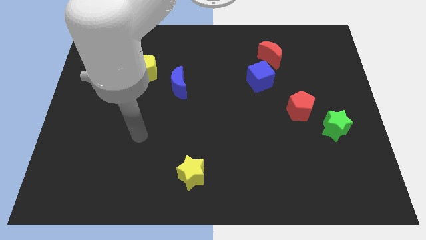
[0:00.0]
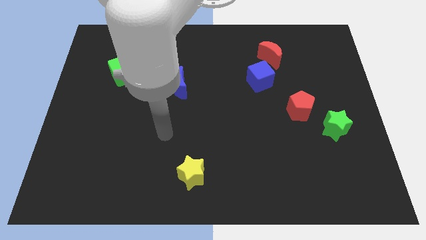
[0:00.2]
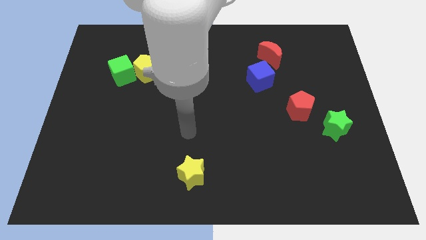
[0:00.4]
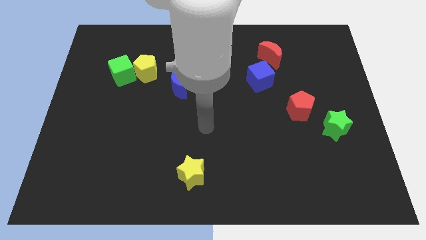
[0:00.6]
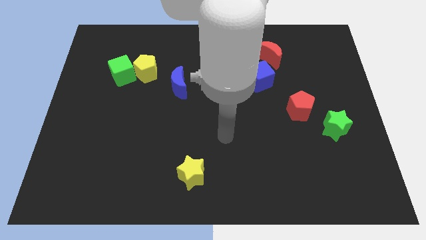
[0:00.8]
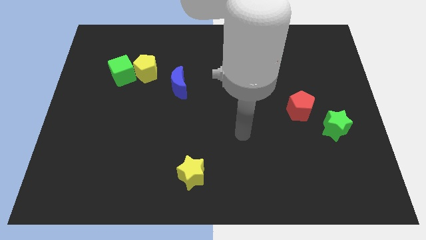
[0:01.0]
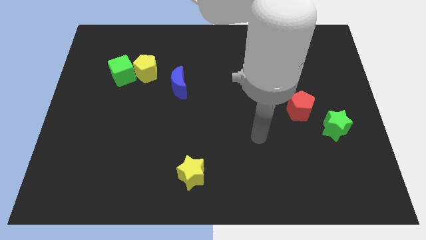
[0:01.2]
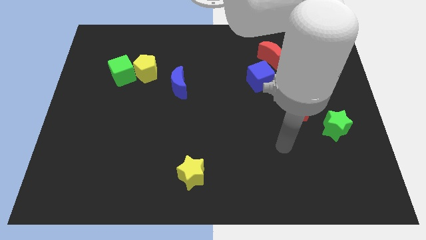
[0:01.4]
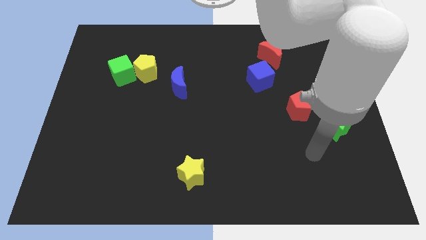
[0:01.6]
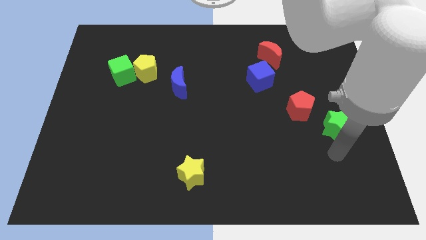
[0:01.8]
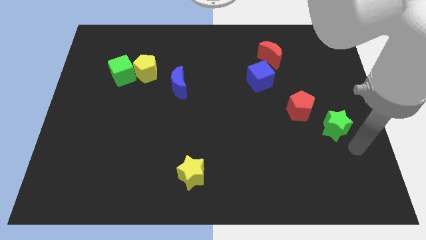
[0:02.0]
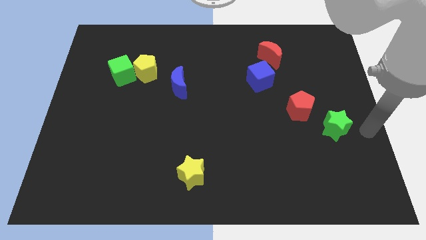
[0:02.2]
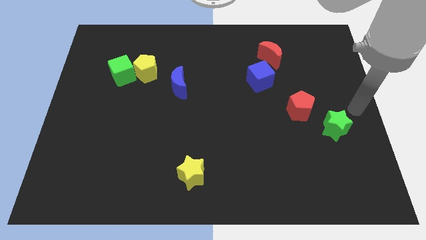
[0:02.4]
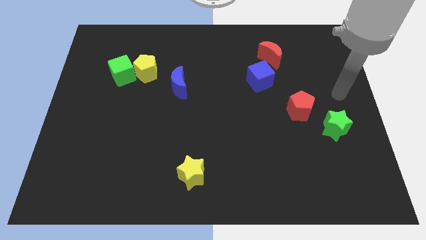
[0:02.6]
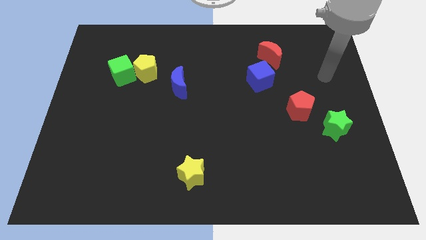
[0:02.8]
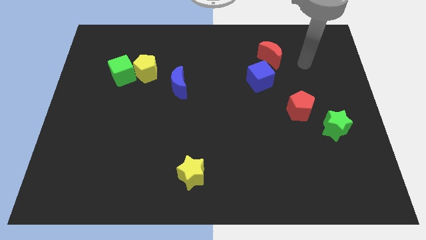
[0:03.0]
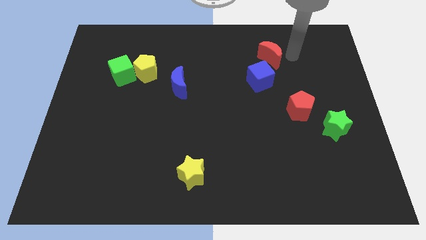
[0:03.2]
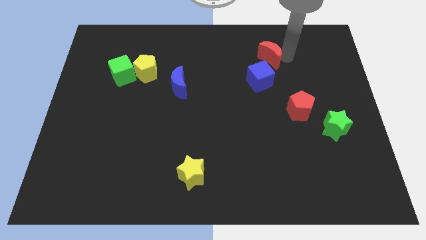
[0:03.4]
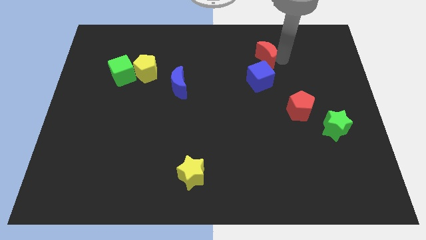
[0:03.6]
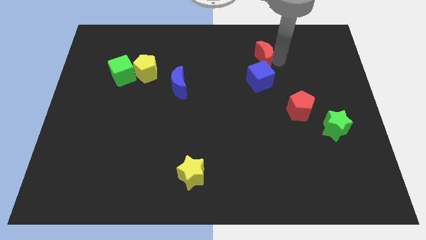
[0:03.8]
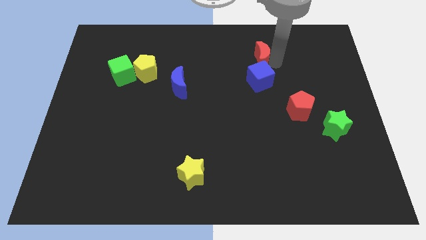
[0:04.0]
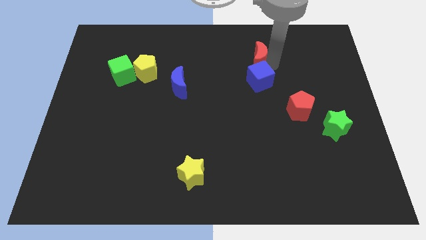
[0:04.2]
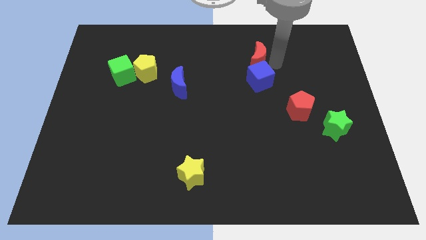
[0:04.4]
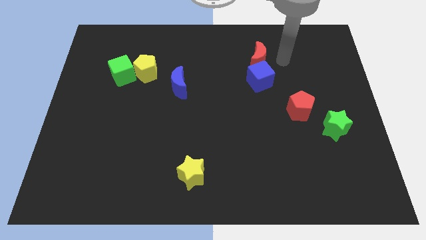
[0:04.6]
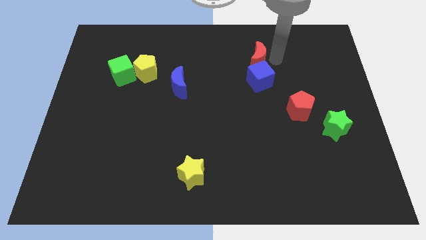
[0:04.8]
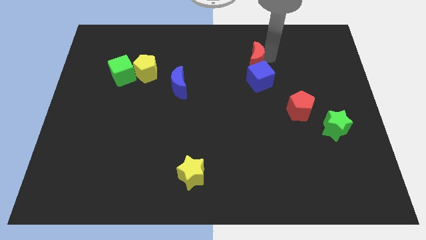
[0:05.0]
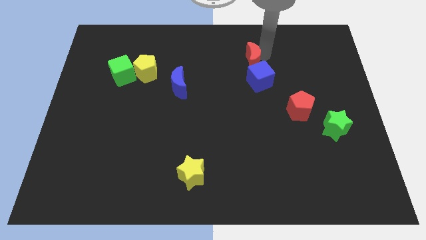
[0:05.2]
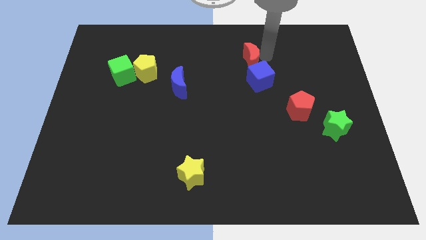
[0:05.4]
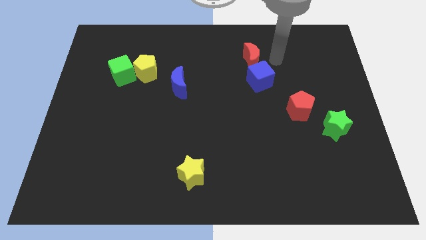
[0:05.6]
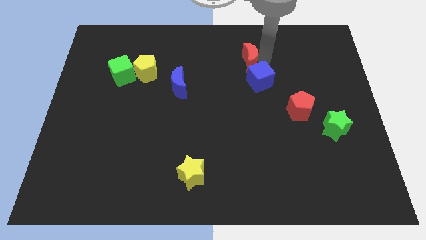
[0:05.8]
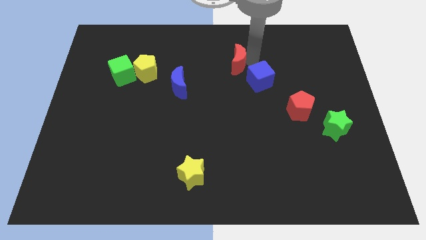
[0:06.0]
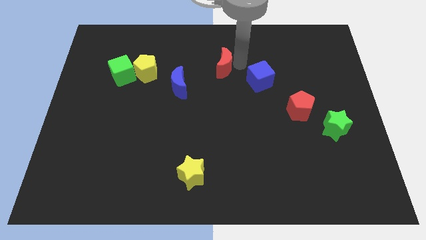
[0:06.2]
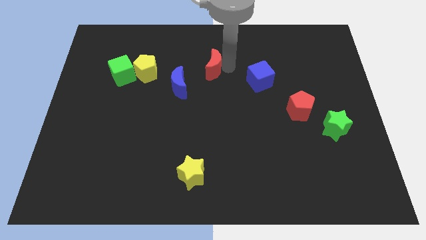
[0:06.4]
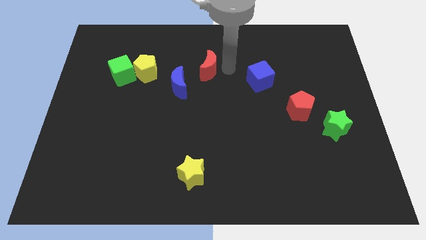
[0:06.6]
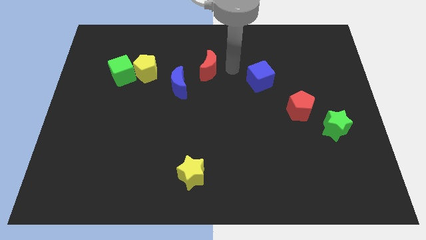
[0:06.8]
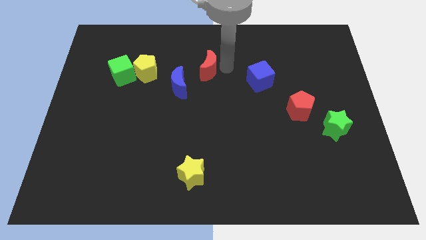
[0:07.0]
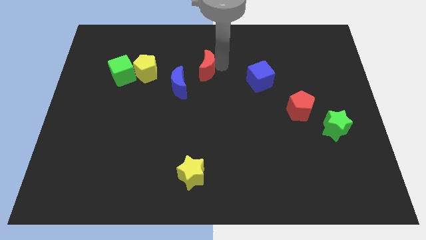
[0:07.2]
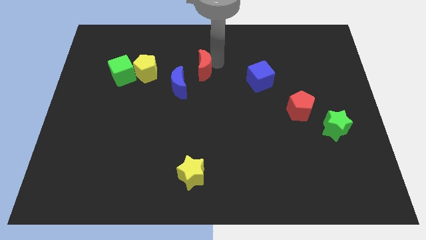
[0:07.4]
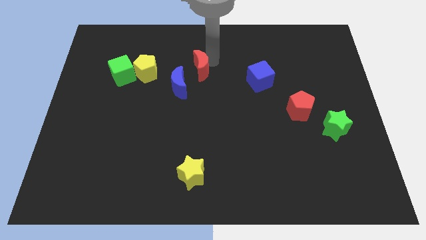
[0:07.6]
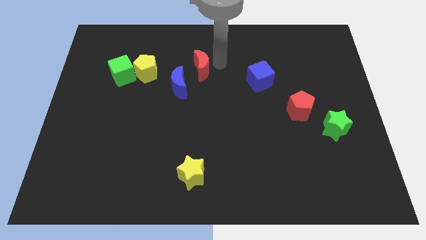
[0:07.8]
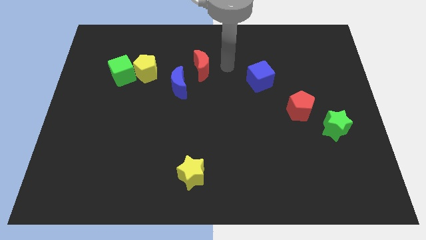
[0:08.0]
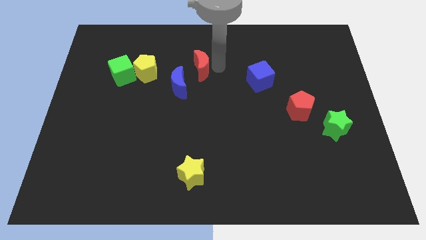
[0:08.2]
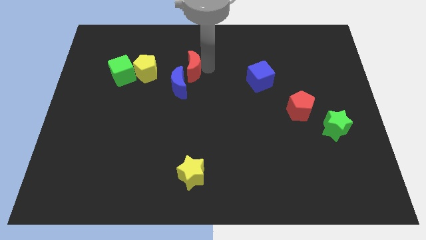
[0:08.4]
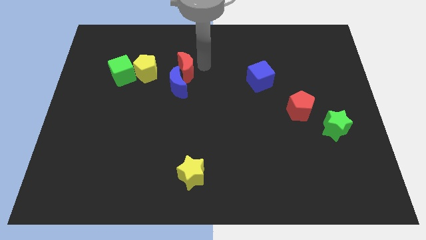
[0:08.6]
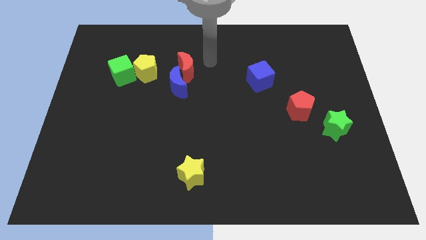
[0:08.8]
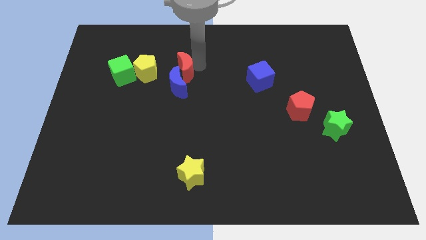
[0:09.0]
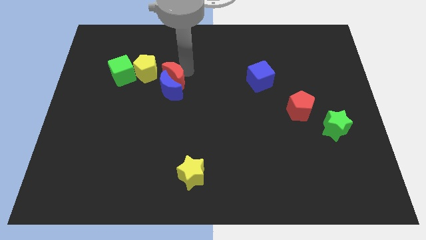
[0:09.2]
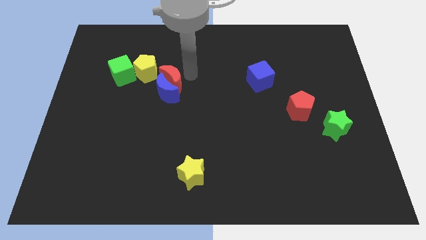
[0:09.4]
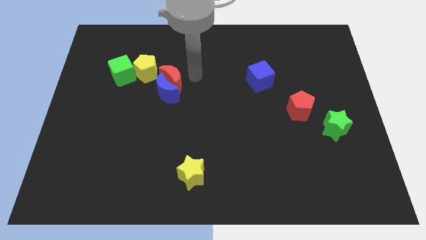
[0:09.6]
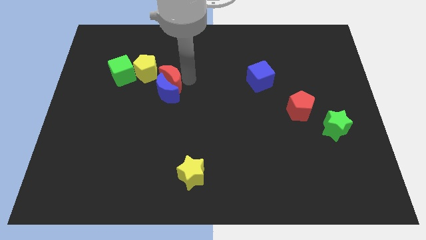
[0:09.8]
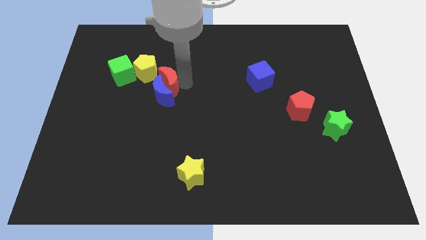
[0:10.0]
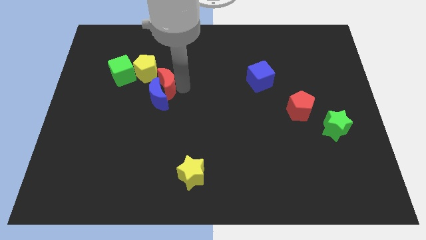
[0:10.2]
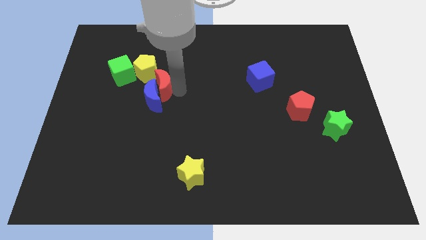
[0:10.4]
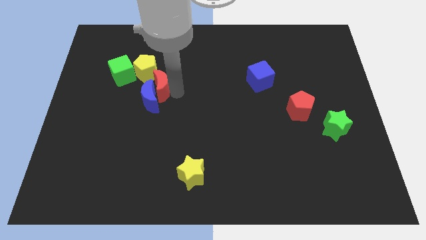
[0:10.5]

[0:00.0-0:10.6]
slide the red moon to the bottom right of the green cube

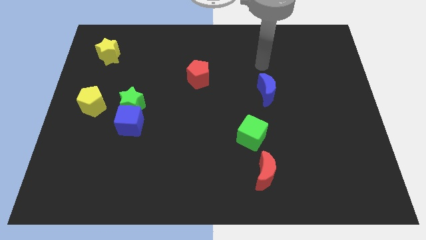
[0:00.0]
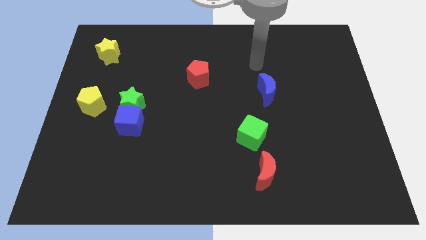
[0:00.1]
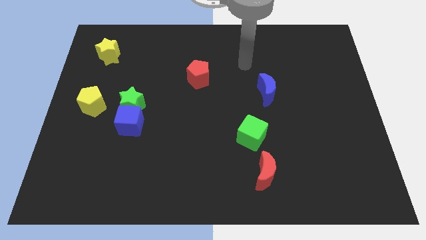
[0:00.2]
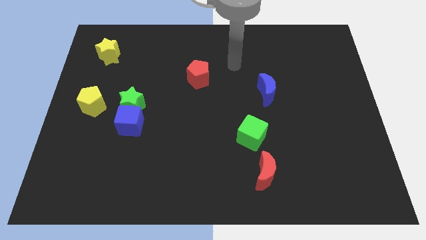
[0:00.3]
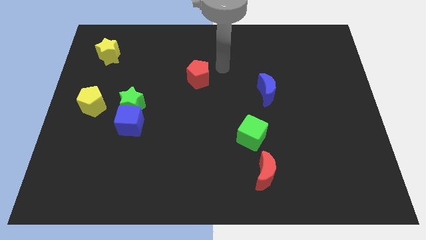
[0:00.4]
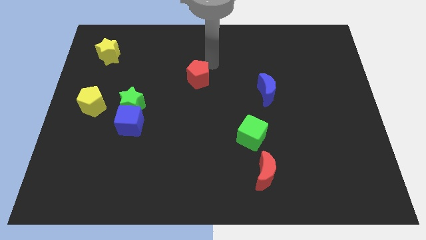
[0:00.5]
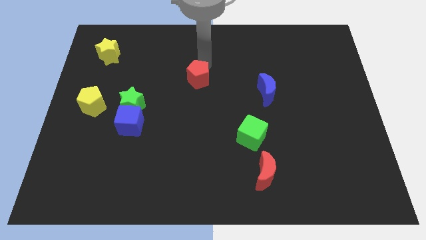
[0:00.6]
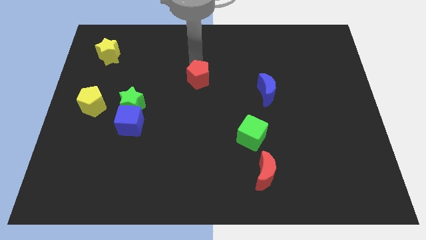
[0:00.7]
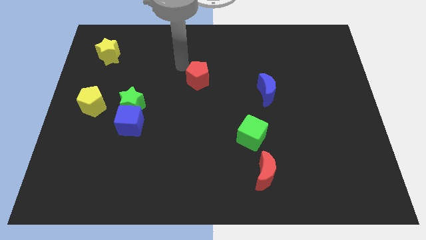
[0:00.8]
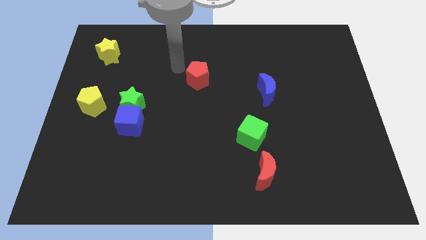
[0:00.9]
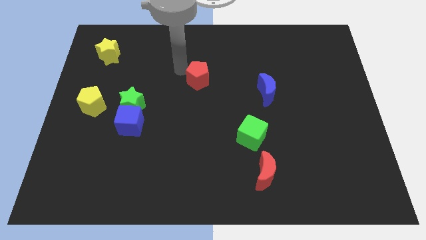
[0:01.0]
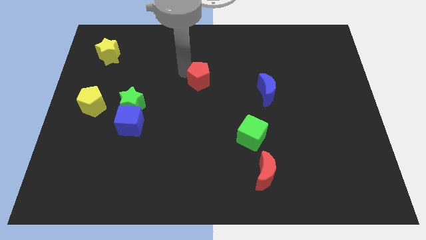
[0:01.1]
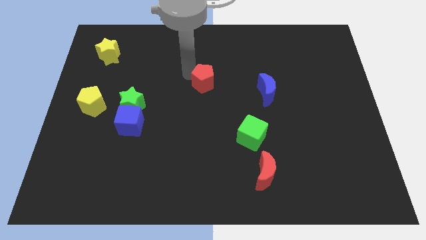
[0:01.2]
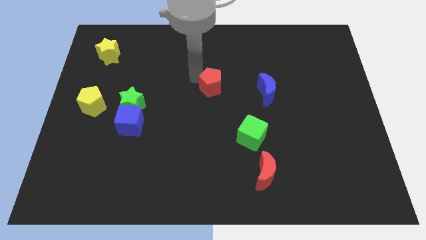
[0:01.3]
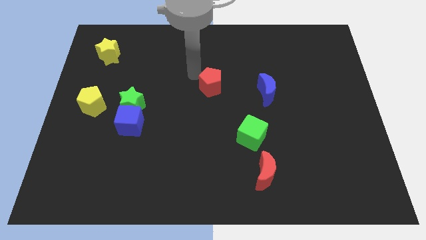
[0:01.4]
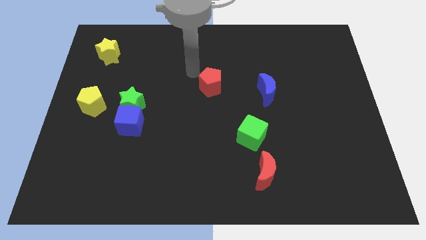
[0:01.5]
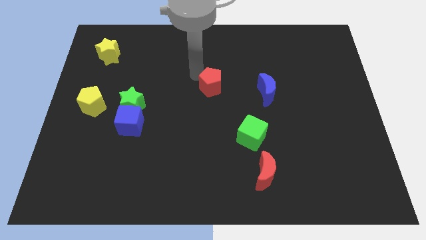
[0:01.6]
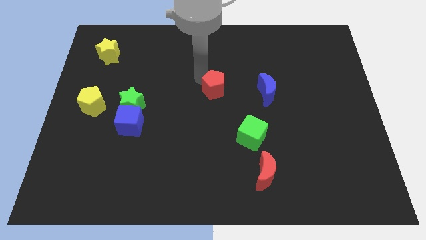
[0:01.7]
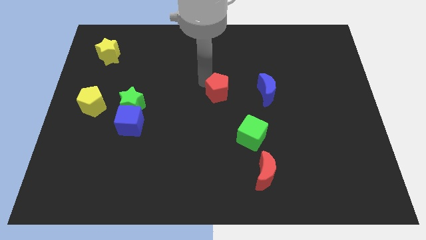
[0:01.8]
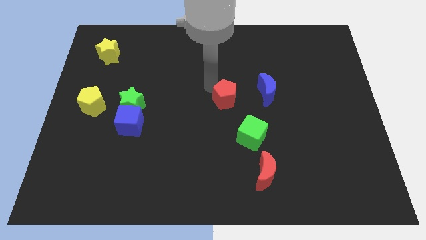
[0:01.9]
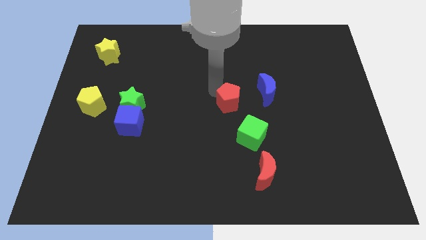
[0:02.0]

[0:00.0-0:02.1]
slide the red pentagon to the bottom left of the blue moon
